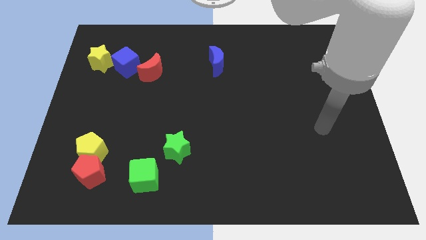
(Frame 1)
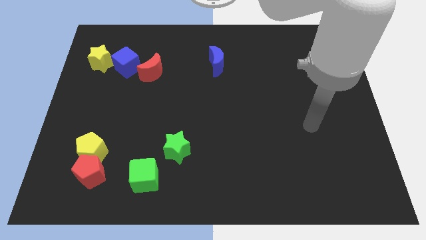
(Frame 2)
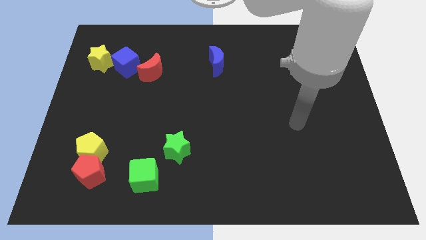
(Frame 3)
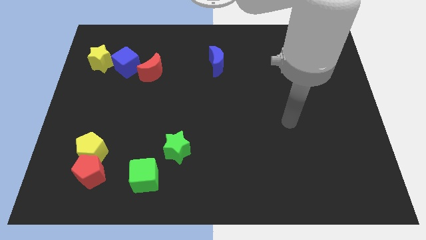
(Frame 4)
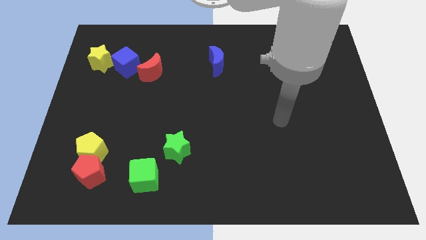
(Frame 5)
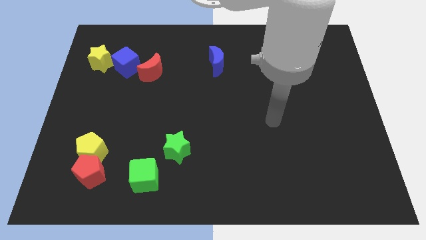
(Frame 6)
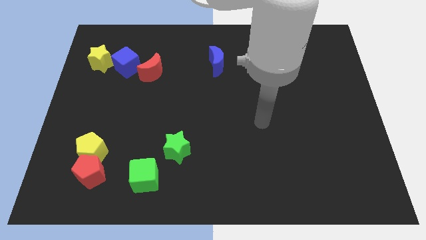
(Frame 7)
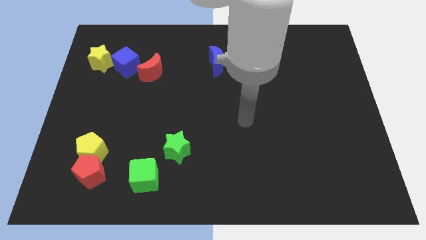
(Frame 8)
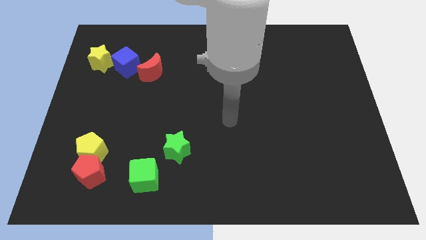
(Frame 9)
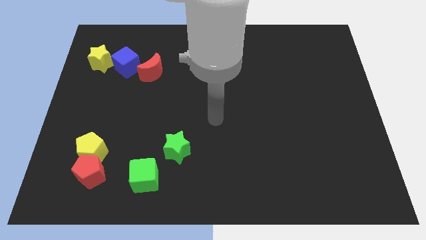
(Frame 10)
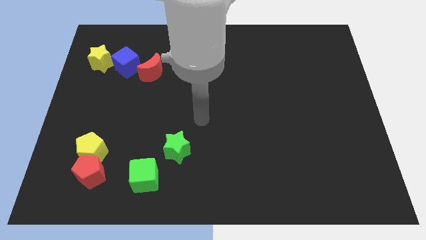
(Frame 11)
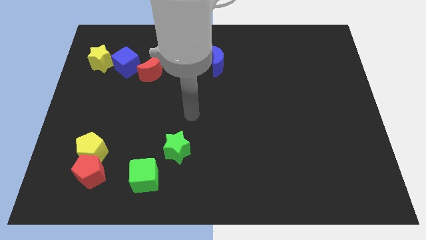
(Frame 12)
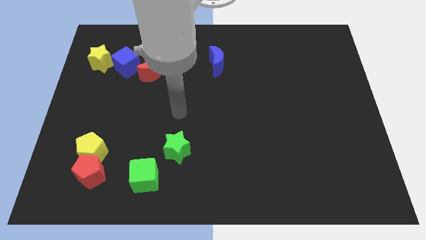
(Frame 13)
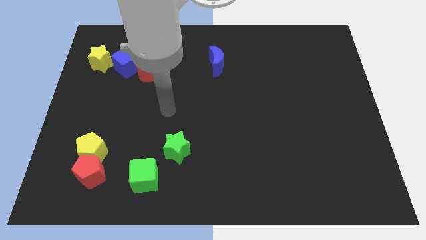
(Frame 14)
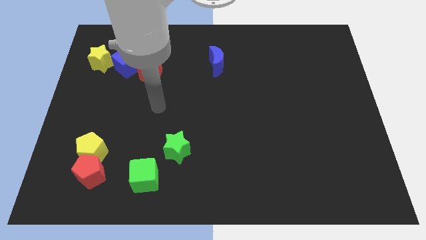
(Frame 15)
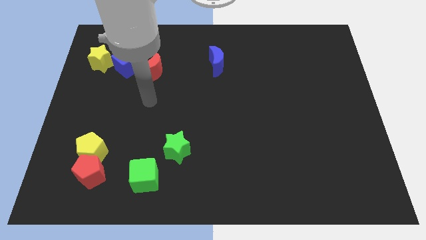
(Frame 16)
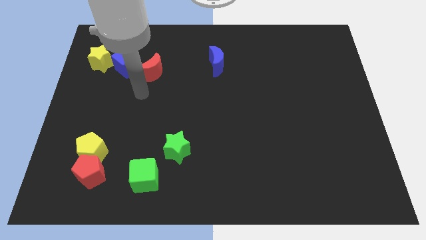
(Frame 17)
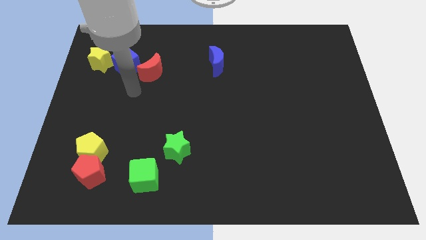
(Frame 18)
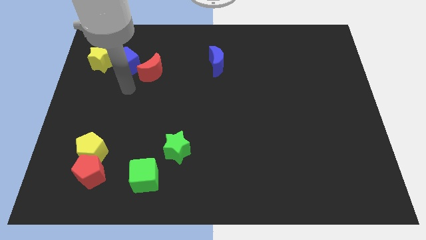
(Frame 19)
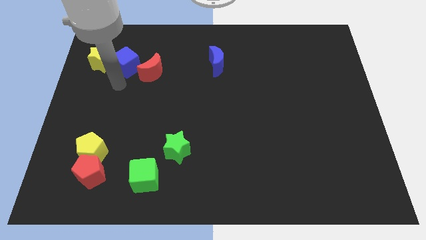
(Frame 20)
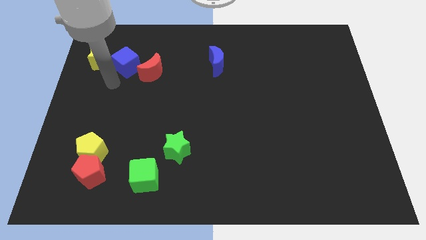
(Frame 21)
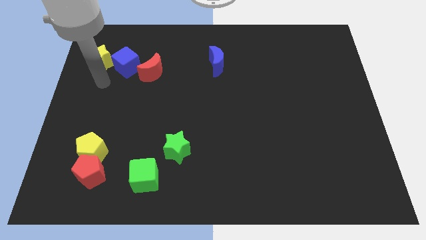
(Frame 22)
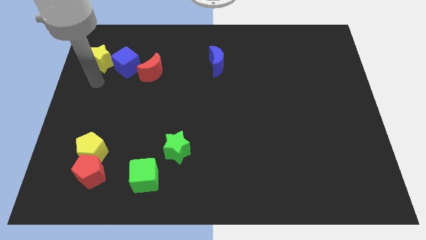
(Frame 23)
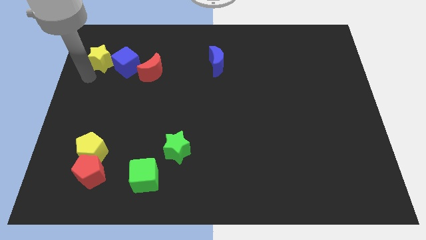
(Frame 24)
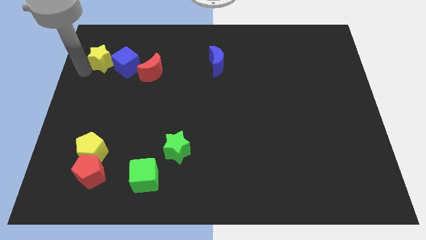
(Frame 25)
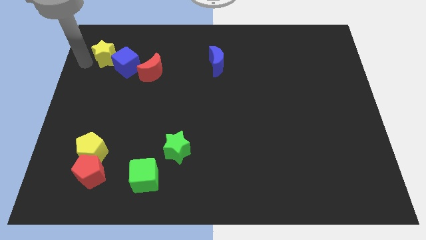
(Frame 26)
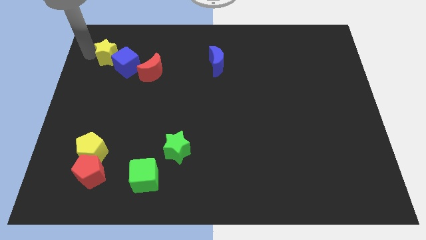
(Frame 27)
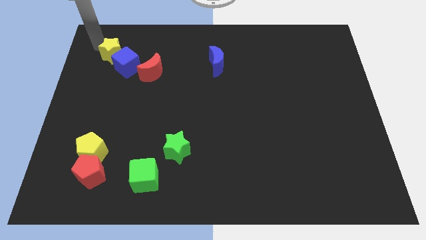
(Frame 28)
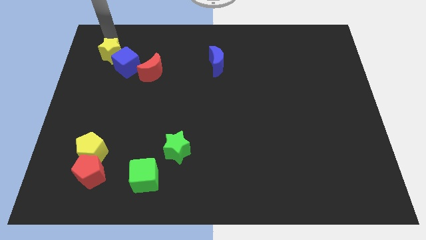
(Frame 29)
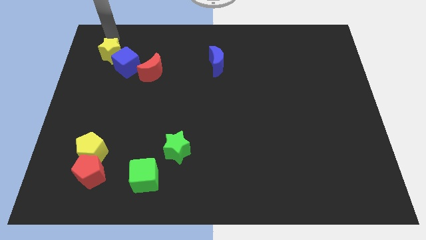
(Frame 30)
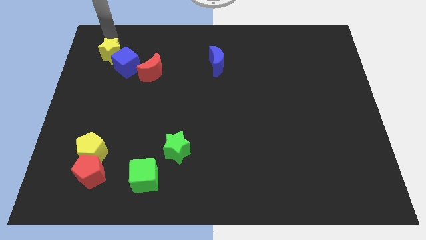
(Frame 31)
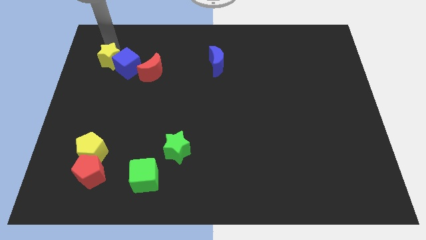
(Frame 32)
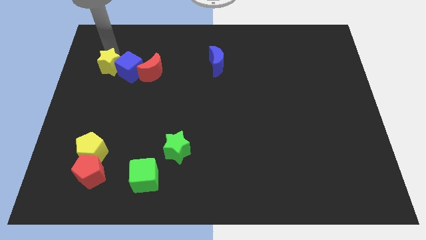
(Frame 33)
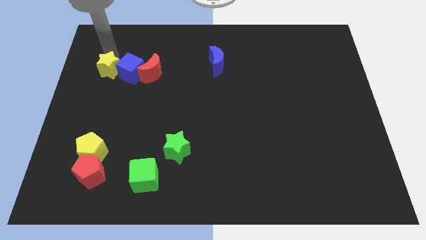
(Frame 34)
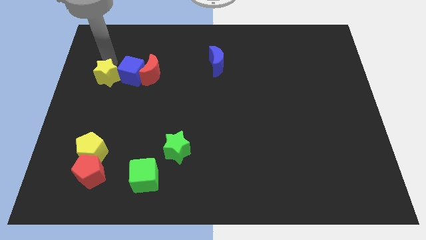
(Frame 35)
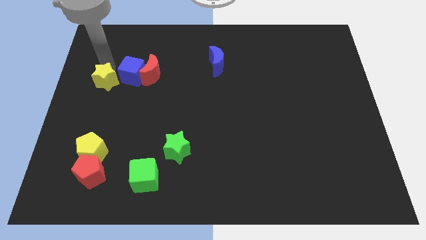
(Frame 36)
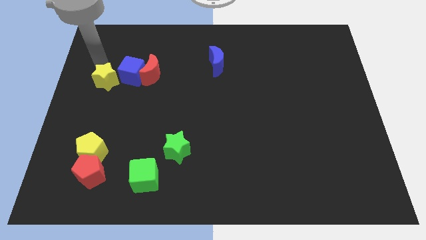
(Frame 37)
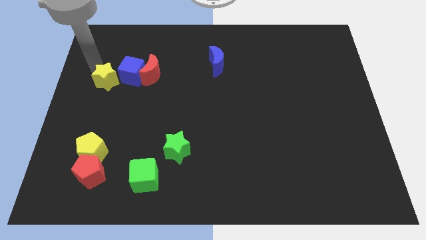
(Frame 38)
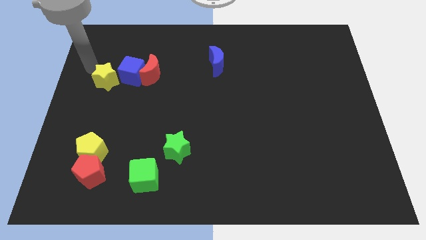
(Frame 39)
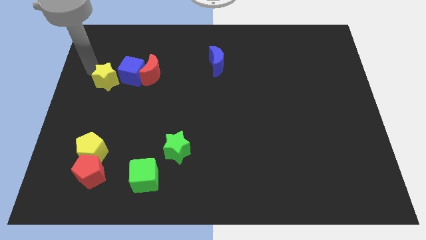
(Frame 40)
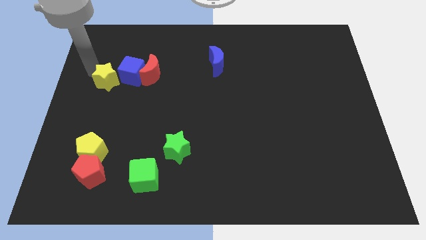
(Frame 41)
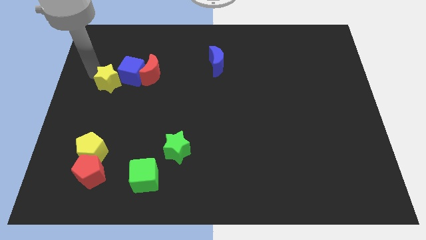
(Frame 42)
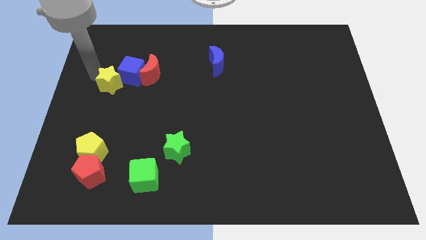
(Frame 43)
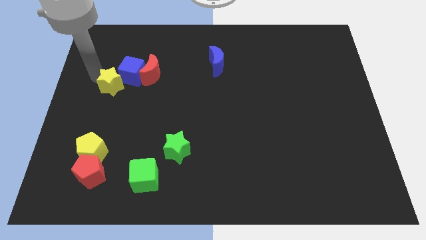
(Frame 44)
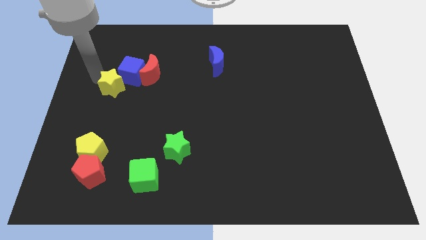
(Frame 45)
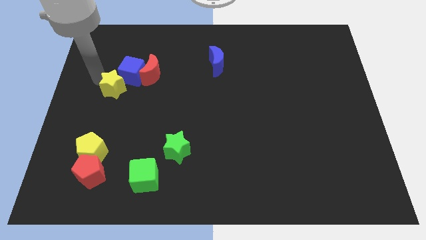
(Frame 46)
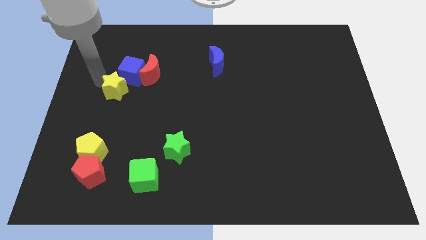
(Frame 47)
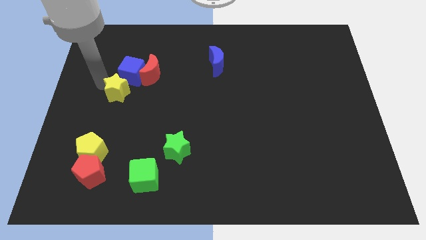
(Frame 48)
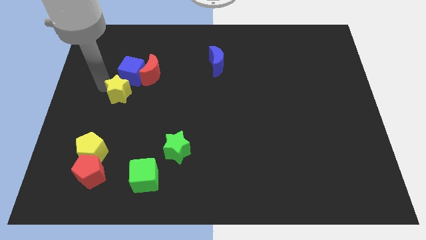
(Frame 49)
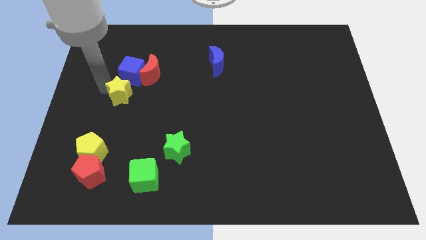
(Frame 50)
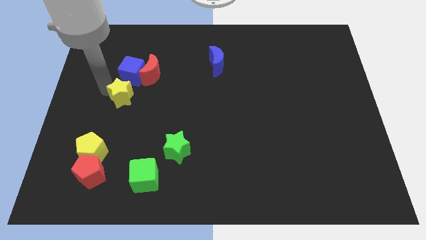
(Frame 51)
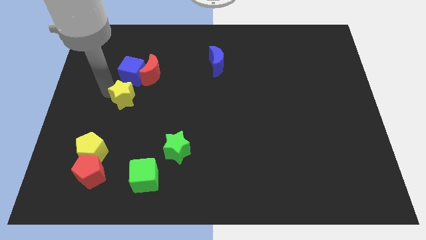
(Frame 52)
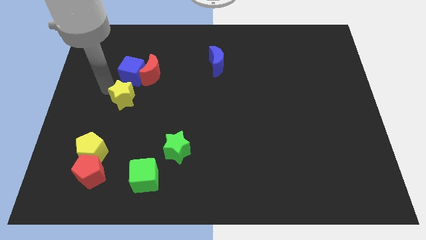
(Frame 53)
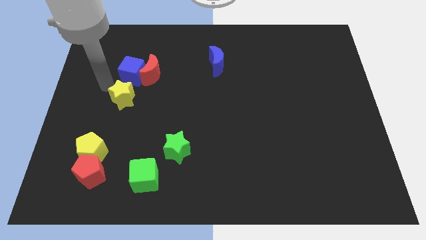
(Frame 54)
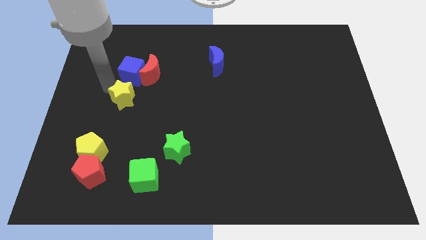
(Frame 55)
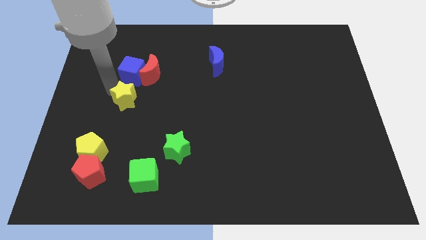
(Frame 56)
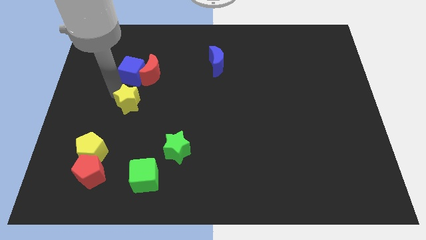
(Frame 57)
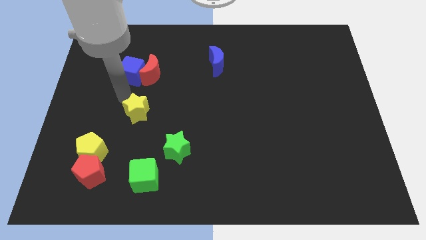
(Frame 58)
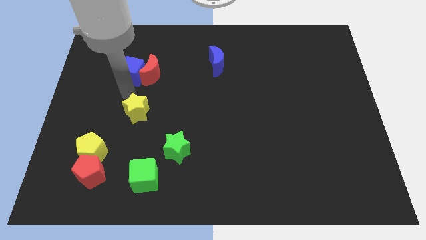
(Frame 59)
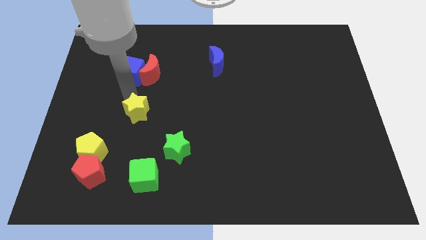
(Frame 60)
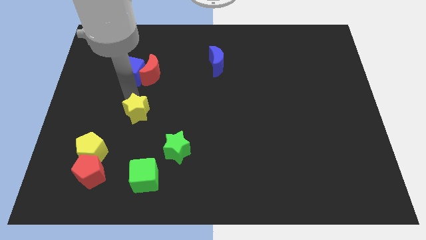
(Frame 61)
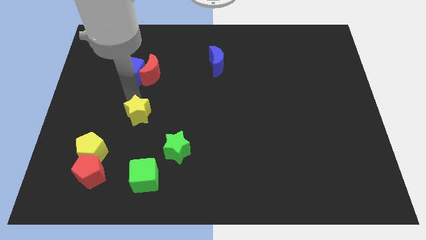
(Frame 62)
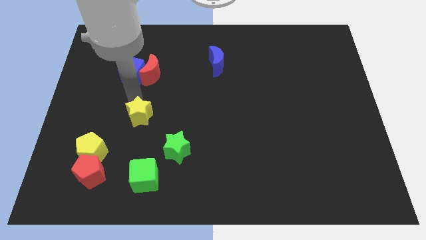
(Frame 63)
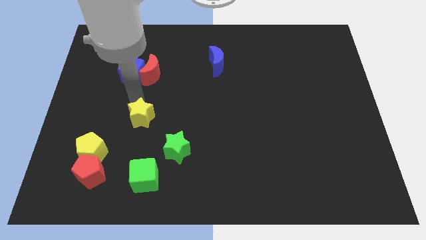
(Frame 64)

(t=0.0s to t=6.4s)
slide the yellow star to the top side of the green cube
